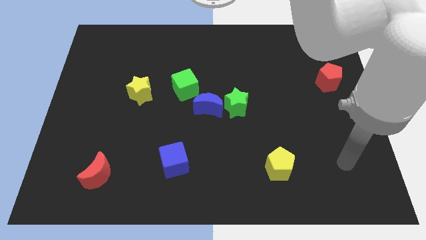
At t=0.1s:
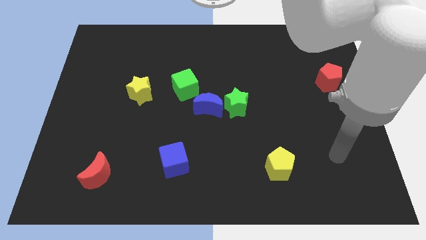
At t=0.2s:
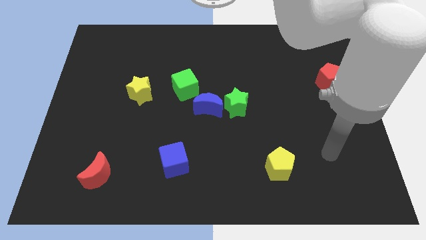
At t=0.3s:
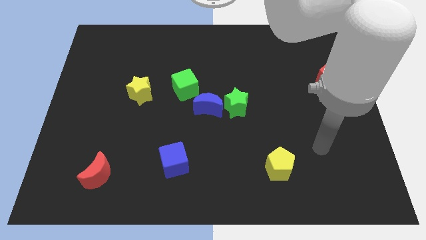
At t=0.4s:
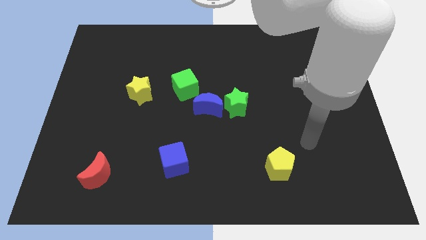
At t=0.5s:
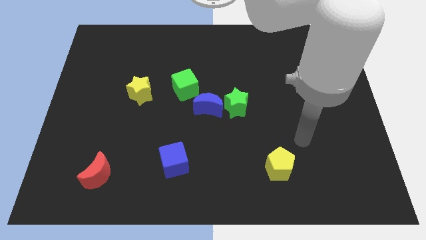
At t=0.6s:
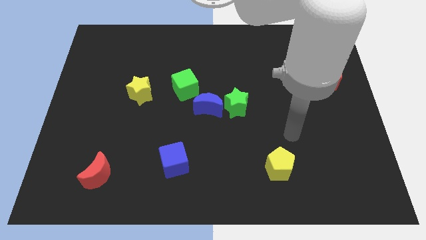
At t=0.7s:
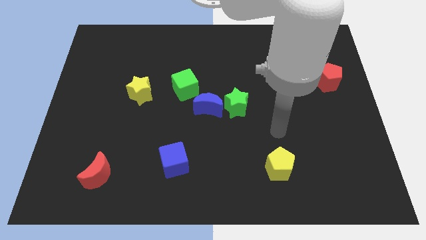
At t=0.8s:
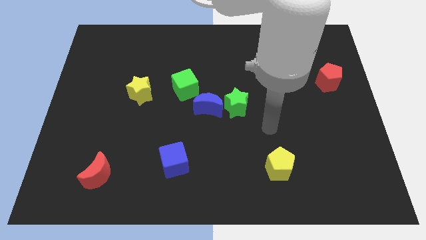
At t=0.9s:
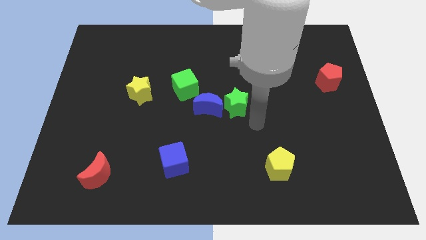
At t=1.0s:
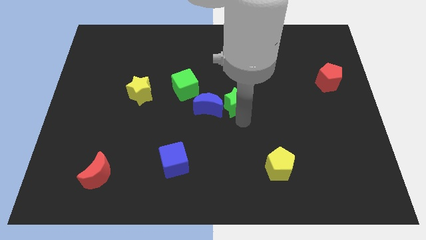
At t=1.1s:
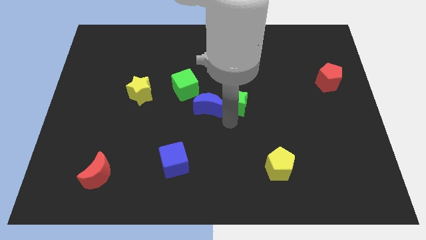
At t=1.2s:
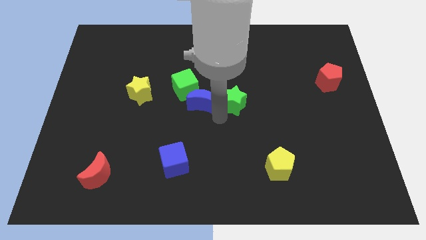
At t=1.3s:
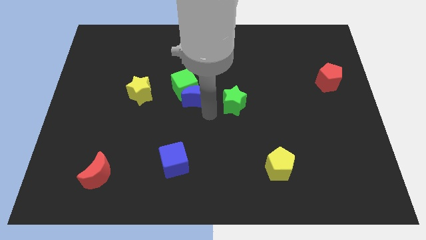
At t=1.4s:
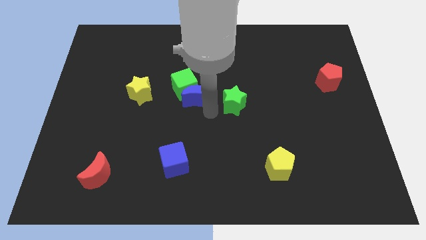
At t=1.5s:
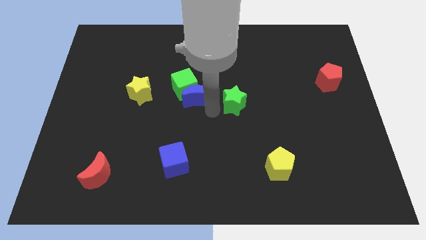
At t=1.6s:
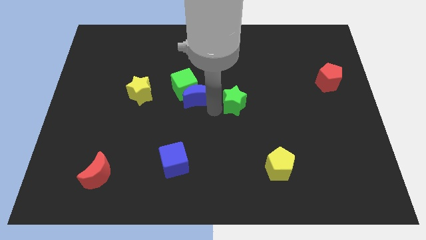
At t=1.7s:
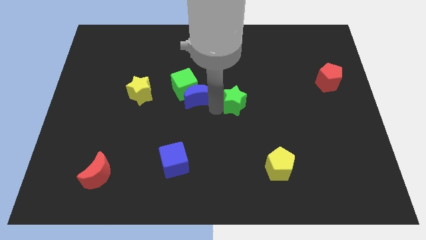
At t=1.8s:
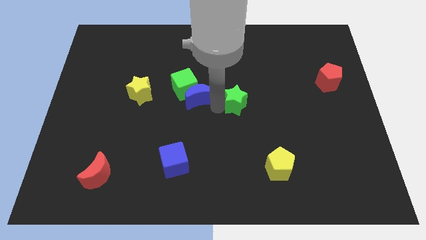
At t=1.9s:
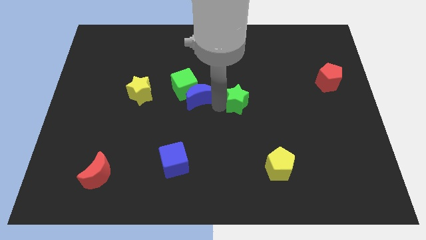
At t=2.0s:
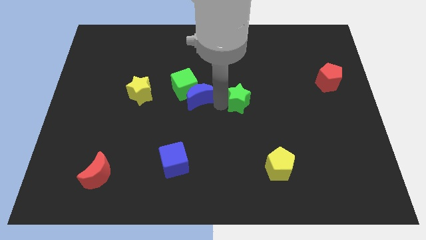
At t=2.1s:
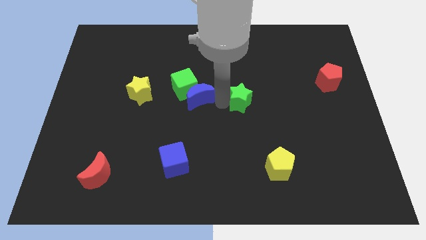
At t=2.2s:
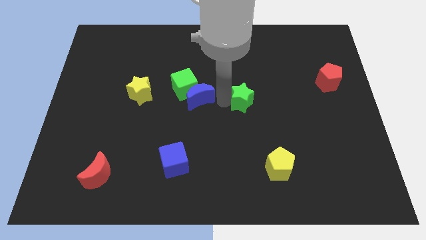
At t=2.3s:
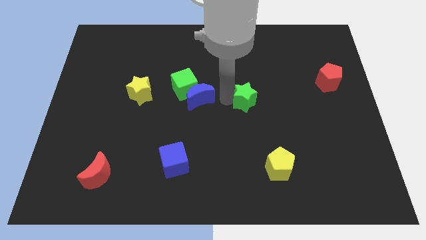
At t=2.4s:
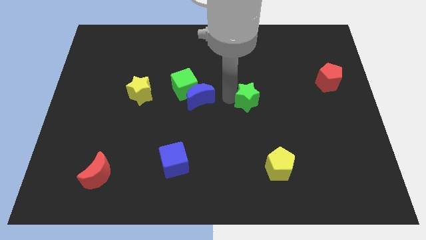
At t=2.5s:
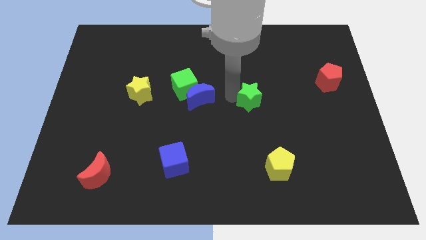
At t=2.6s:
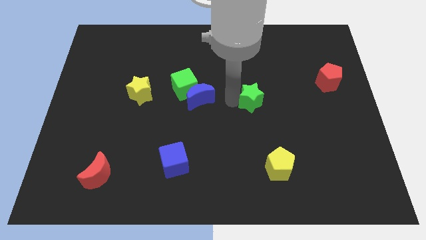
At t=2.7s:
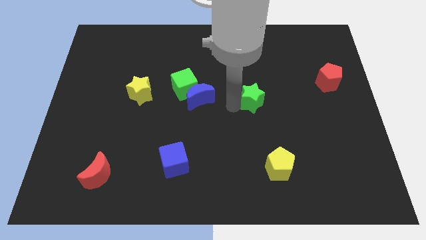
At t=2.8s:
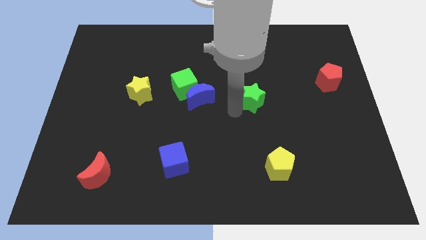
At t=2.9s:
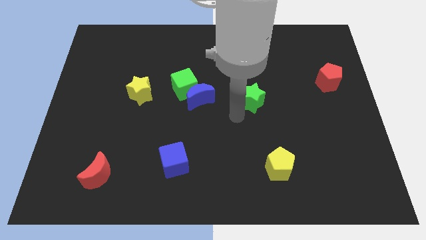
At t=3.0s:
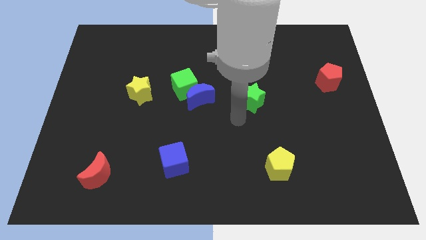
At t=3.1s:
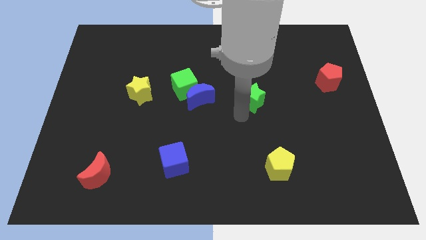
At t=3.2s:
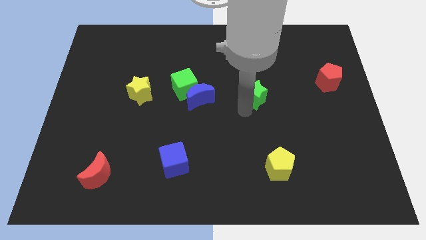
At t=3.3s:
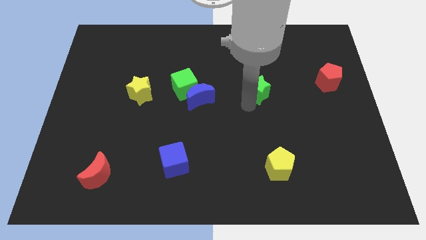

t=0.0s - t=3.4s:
push the green star somewhat up and right

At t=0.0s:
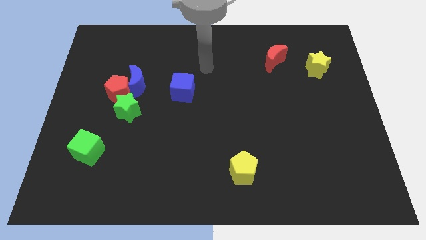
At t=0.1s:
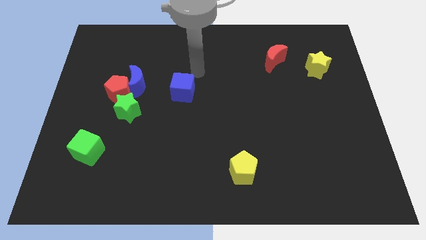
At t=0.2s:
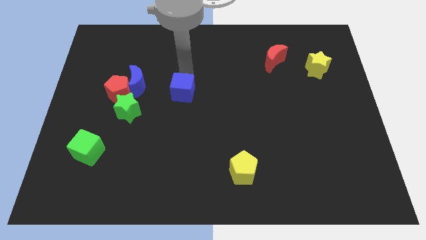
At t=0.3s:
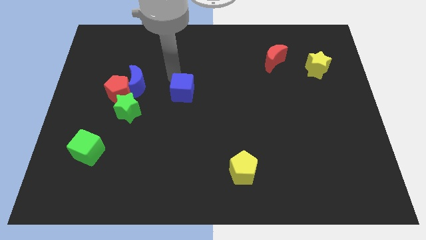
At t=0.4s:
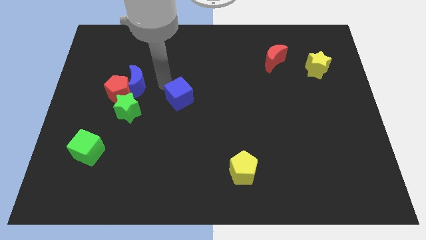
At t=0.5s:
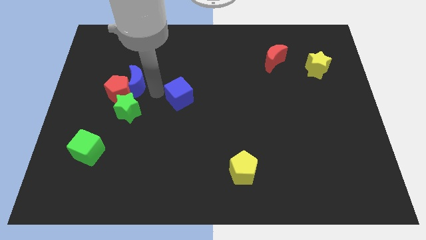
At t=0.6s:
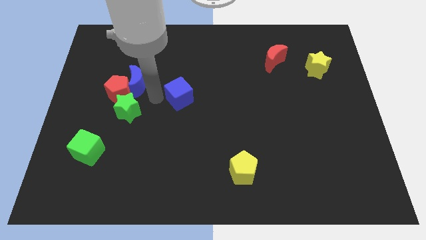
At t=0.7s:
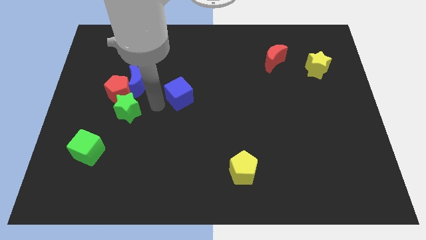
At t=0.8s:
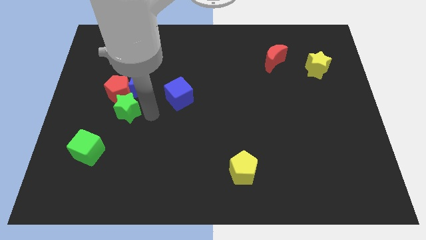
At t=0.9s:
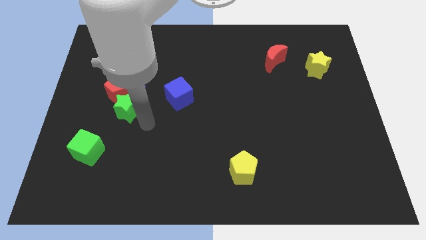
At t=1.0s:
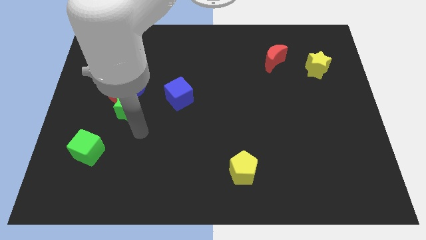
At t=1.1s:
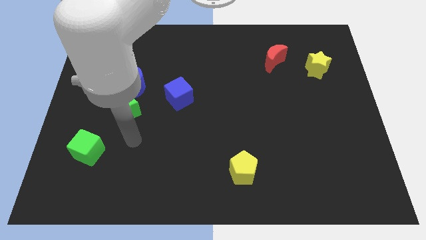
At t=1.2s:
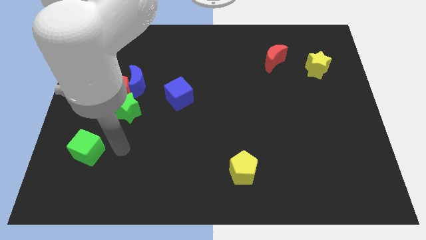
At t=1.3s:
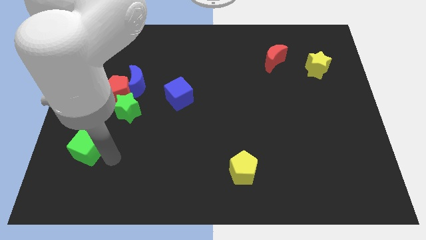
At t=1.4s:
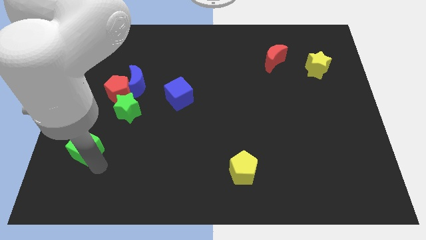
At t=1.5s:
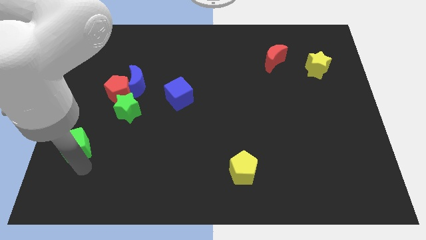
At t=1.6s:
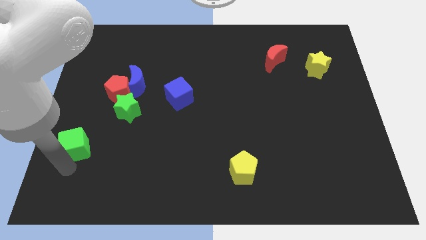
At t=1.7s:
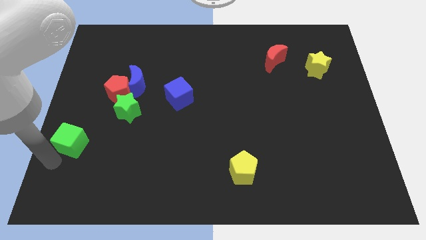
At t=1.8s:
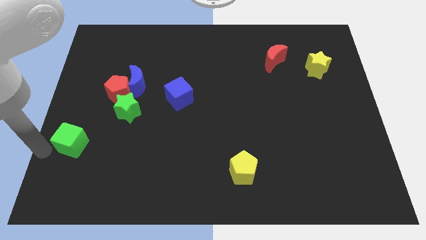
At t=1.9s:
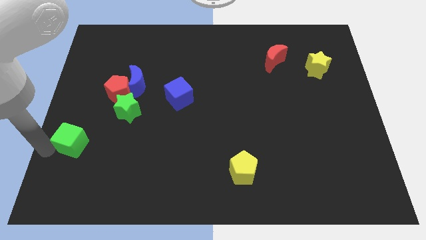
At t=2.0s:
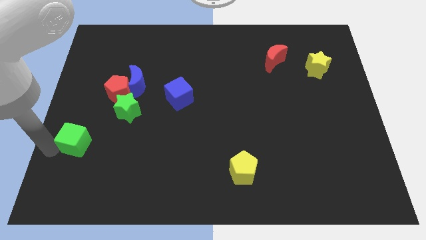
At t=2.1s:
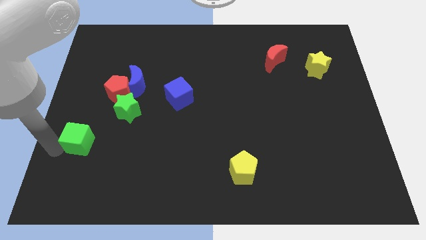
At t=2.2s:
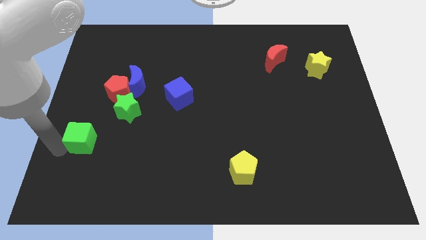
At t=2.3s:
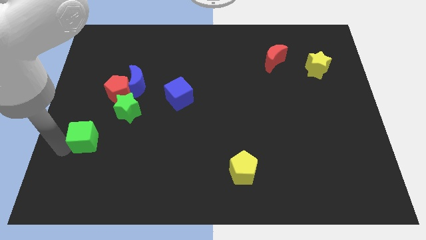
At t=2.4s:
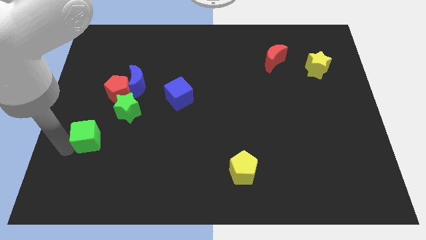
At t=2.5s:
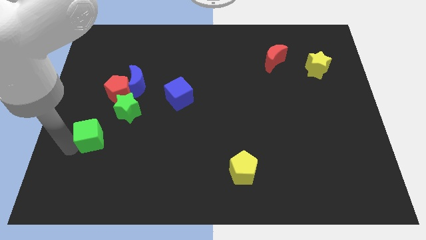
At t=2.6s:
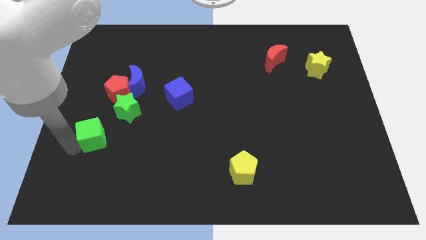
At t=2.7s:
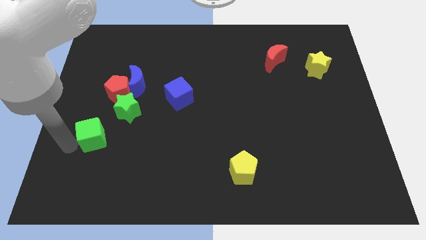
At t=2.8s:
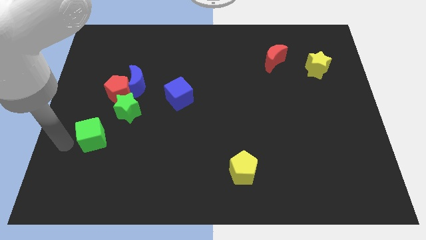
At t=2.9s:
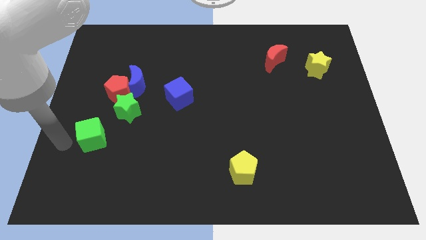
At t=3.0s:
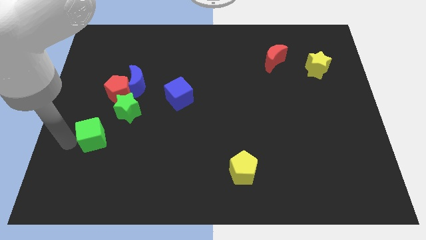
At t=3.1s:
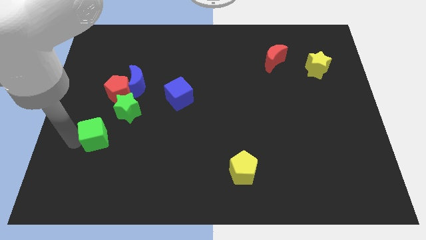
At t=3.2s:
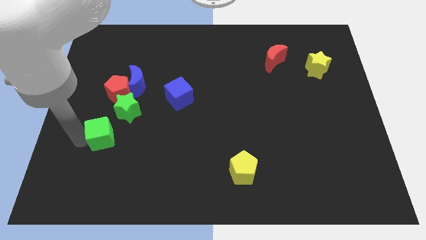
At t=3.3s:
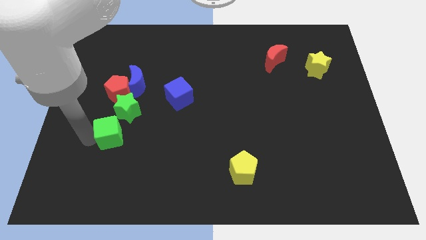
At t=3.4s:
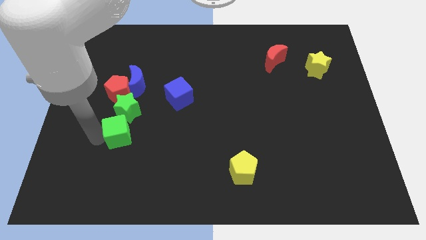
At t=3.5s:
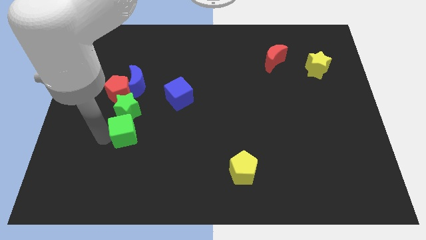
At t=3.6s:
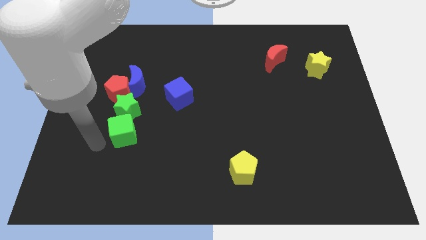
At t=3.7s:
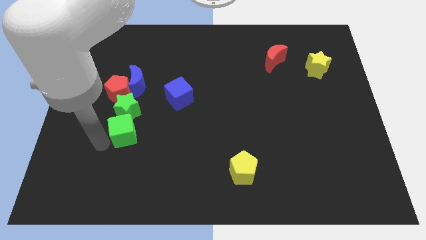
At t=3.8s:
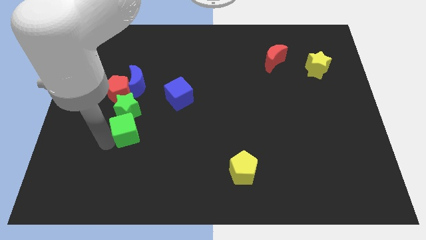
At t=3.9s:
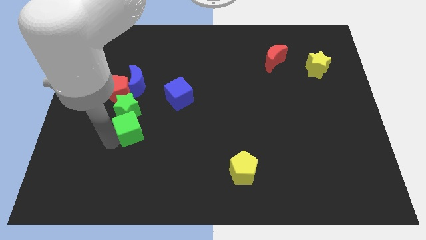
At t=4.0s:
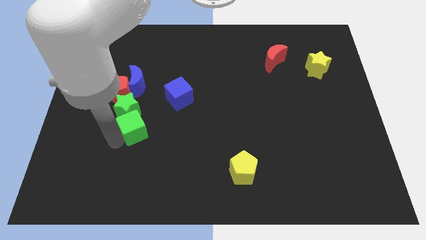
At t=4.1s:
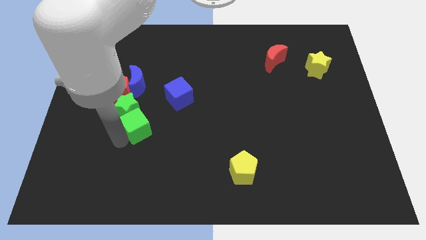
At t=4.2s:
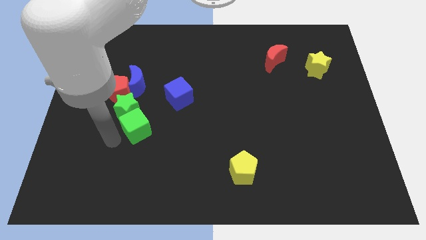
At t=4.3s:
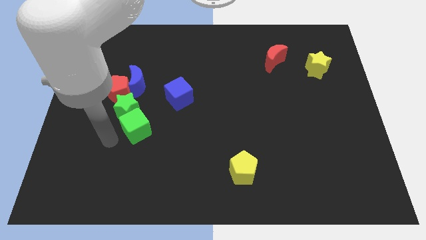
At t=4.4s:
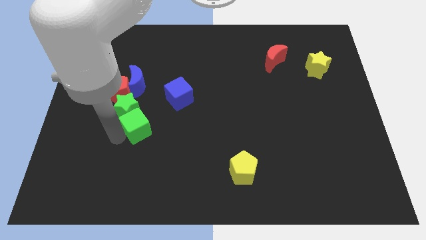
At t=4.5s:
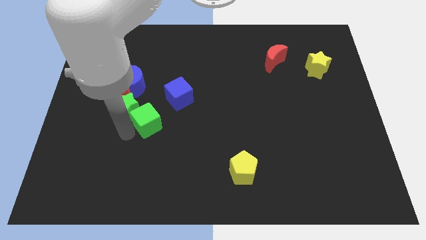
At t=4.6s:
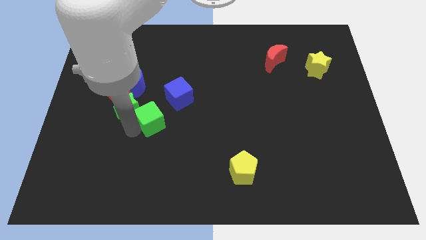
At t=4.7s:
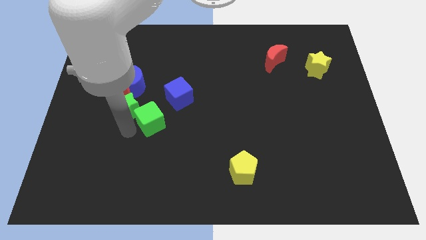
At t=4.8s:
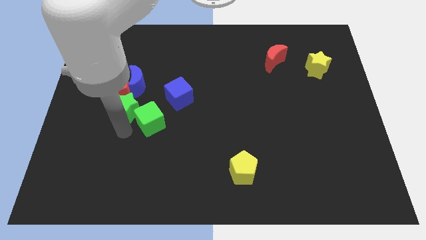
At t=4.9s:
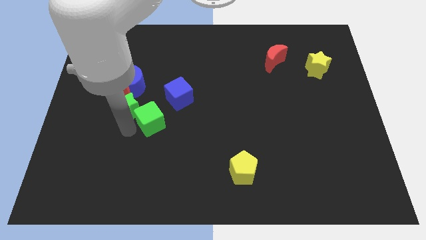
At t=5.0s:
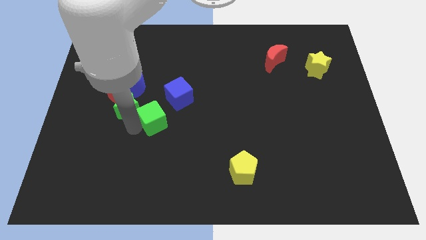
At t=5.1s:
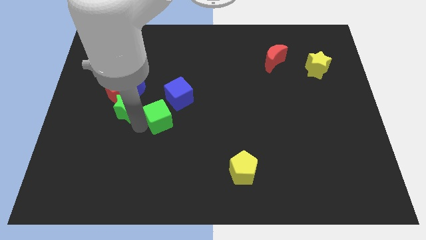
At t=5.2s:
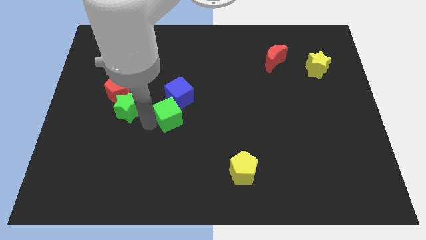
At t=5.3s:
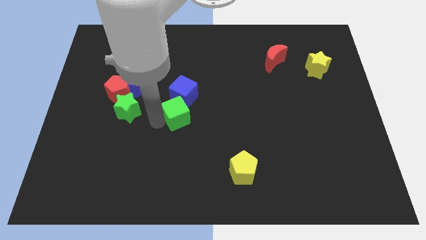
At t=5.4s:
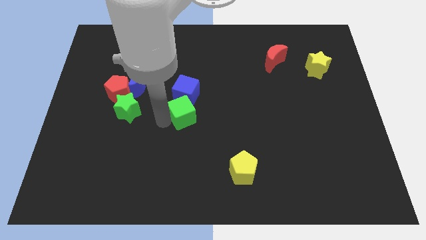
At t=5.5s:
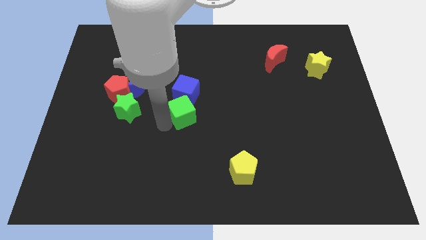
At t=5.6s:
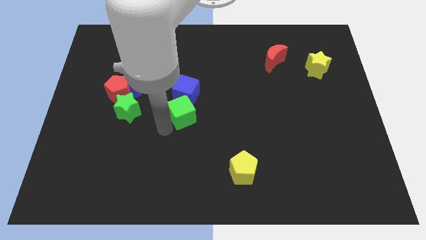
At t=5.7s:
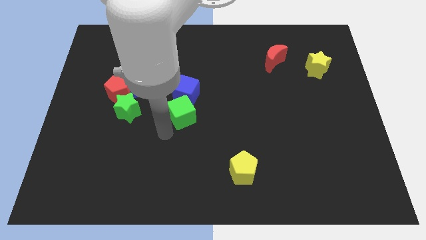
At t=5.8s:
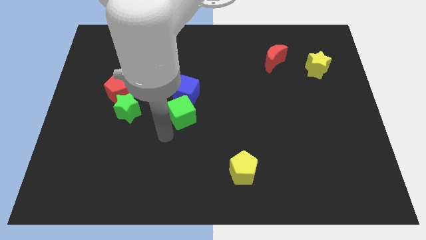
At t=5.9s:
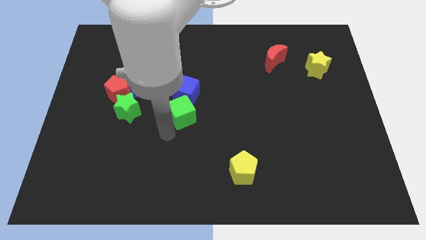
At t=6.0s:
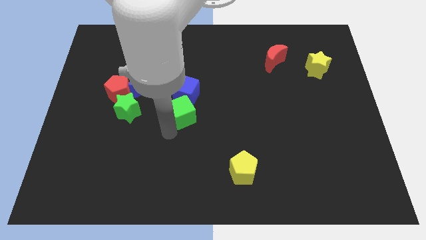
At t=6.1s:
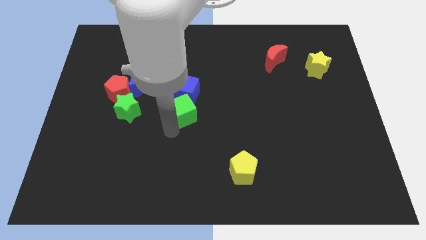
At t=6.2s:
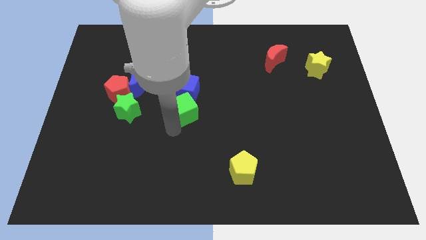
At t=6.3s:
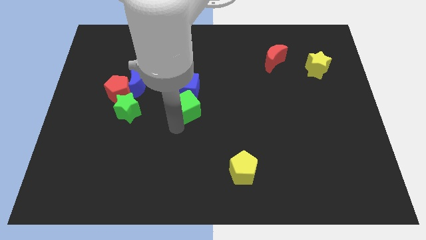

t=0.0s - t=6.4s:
slide the green cube upwards and to the right
